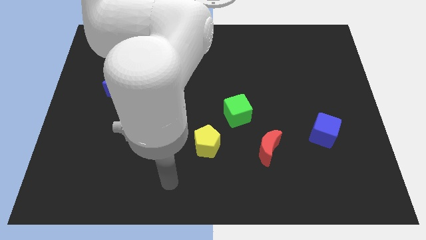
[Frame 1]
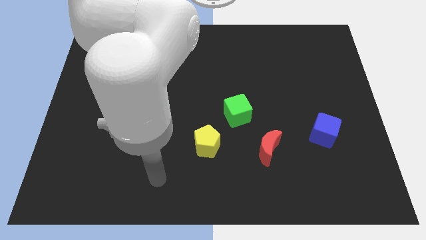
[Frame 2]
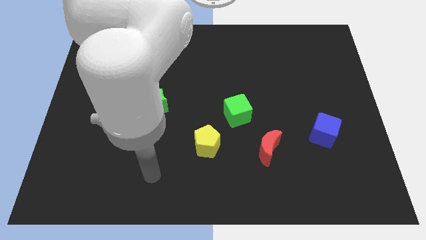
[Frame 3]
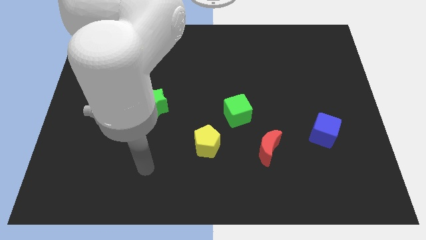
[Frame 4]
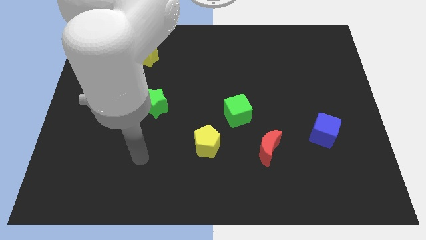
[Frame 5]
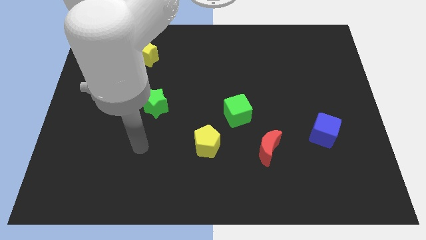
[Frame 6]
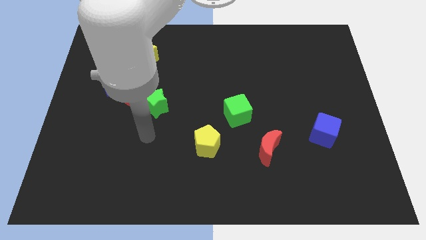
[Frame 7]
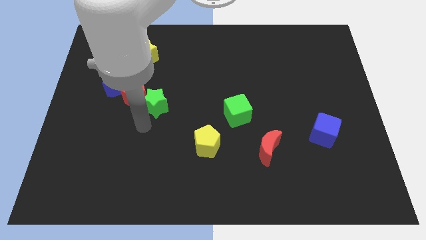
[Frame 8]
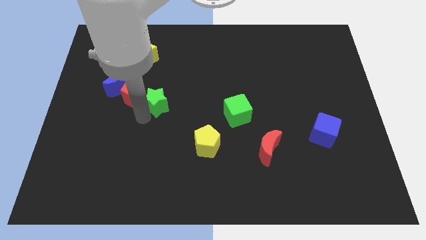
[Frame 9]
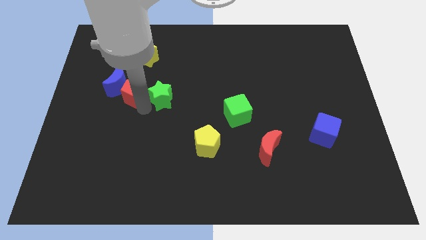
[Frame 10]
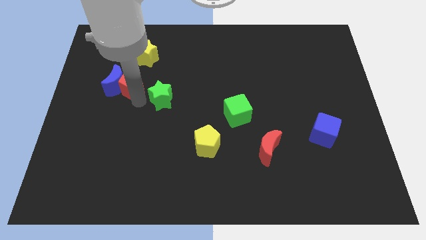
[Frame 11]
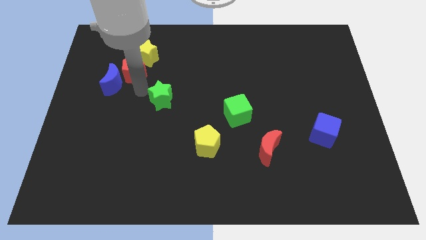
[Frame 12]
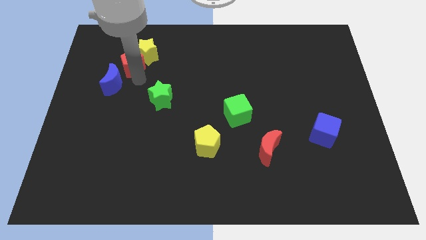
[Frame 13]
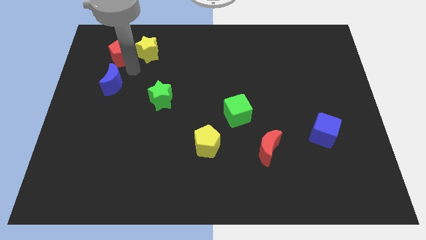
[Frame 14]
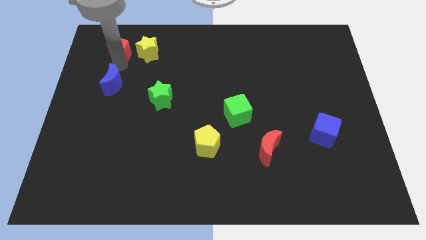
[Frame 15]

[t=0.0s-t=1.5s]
pull the blue moon apart from the red pentagon

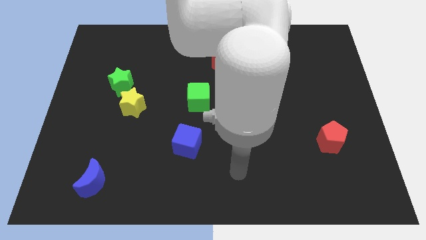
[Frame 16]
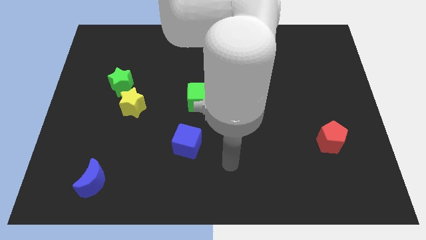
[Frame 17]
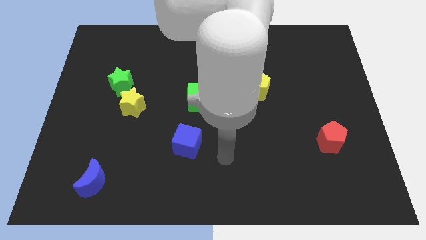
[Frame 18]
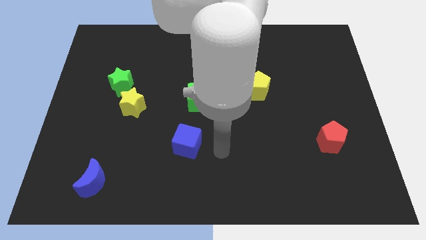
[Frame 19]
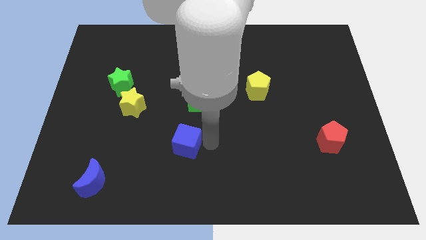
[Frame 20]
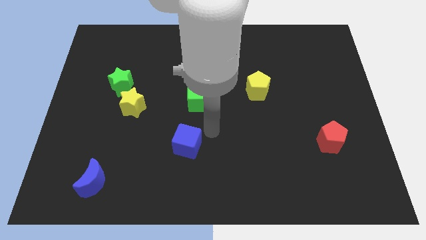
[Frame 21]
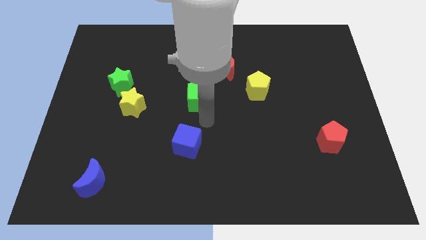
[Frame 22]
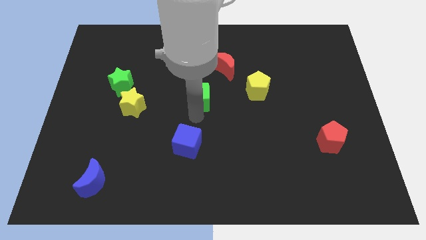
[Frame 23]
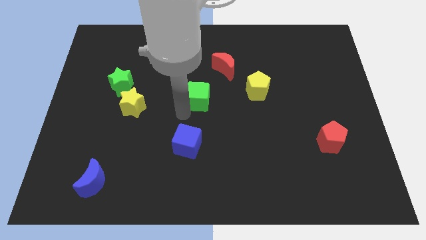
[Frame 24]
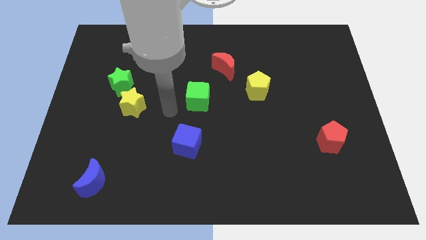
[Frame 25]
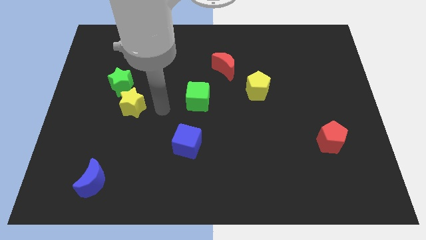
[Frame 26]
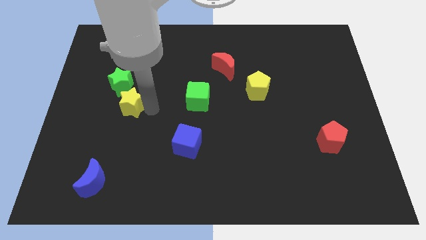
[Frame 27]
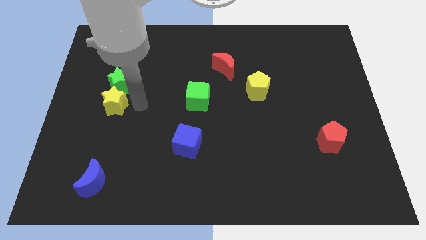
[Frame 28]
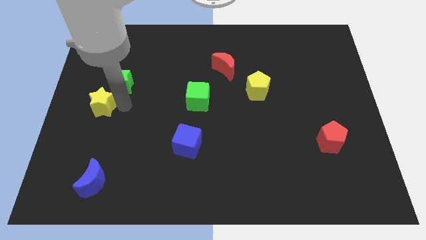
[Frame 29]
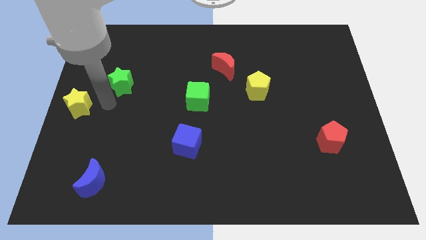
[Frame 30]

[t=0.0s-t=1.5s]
move the green star away from the yellow star

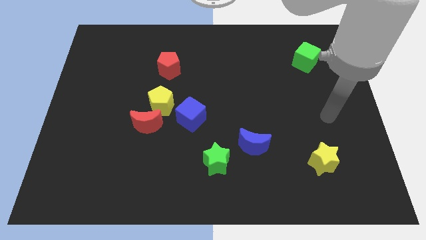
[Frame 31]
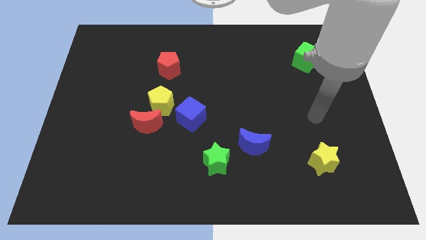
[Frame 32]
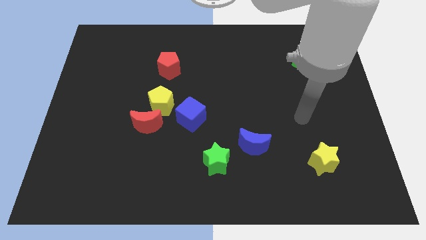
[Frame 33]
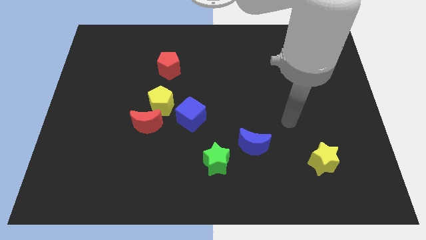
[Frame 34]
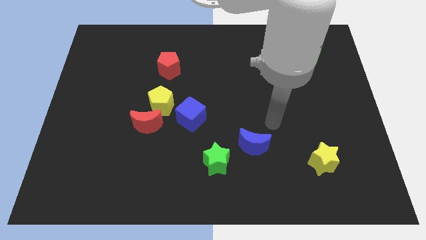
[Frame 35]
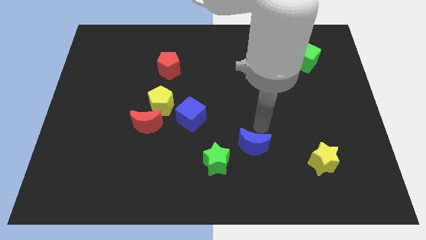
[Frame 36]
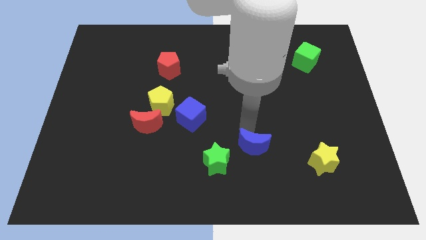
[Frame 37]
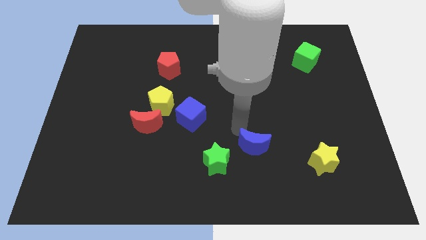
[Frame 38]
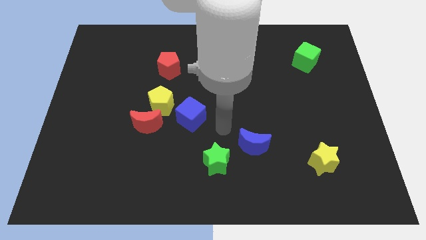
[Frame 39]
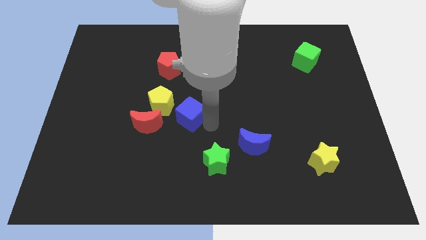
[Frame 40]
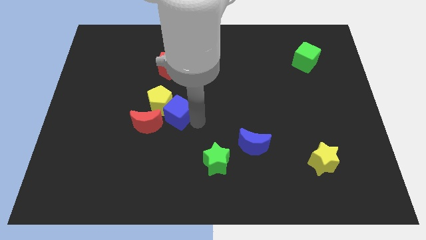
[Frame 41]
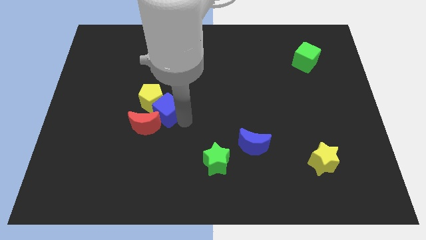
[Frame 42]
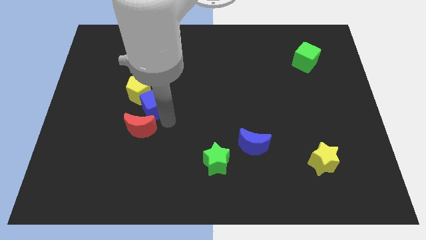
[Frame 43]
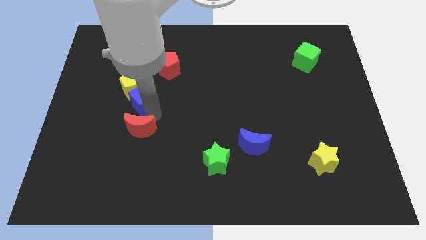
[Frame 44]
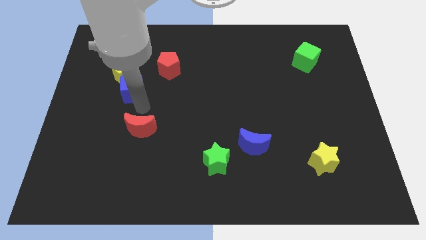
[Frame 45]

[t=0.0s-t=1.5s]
move the yellow pentagon away from the red moon and blue cube

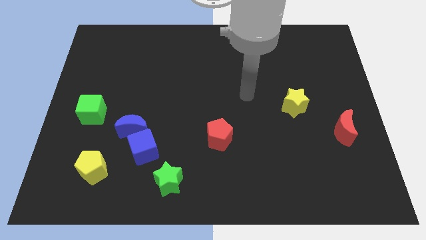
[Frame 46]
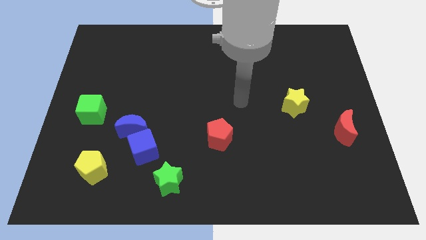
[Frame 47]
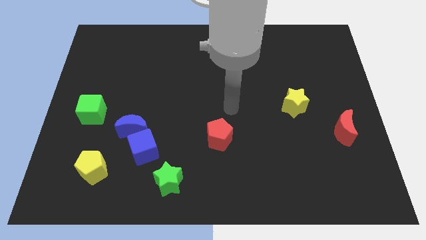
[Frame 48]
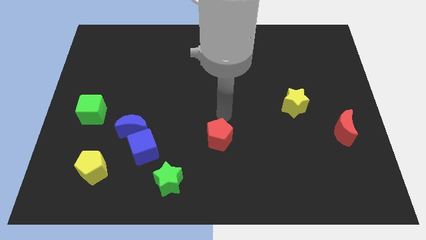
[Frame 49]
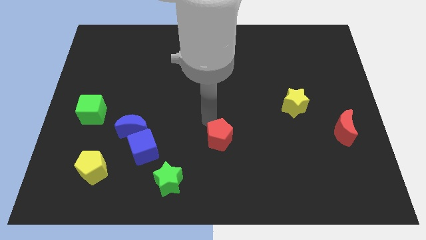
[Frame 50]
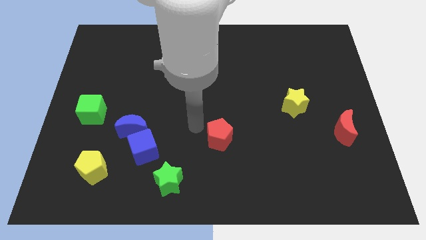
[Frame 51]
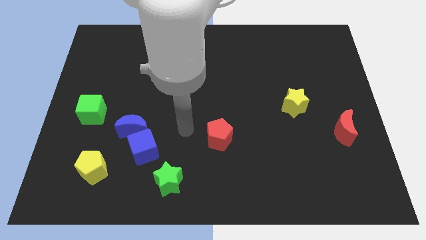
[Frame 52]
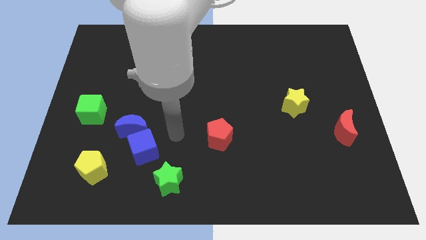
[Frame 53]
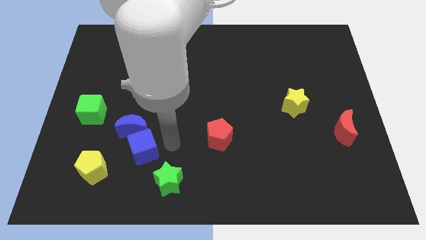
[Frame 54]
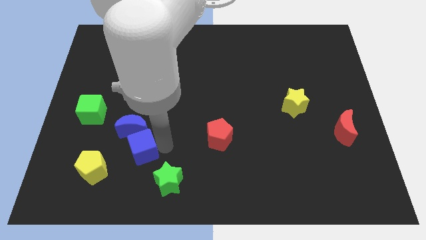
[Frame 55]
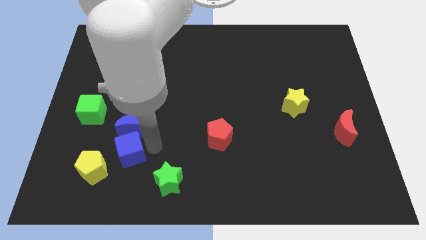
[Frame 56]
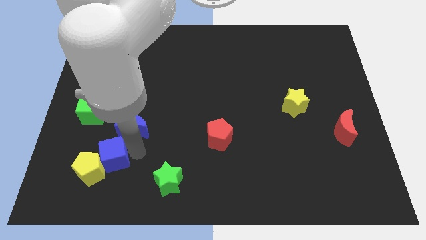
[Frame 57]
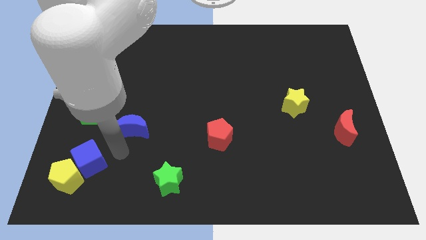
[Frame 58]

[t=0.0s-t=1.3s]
pull the blue moon apart from the blue cube

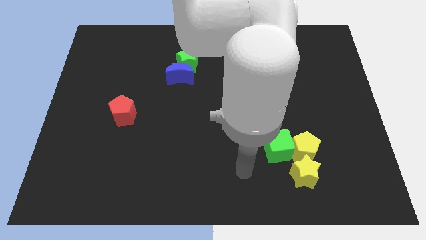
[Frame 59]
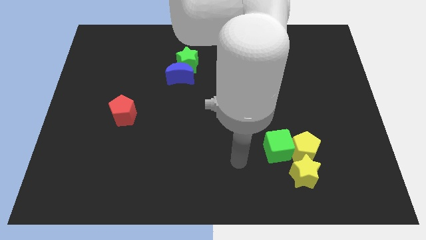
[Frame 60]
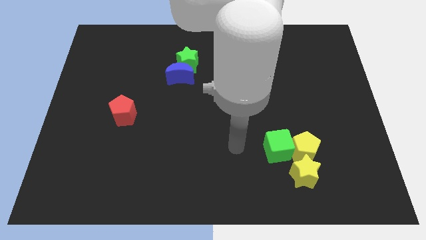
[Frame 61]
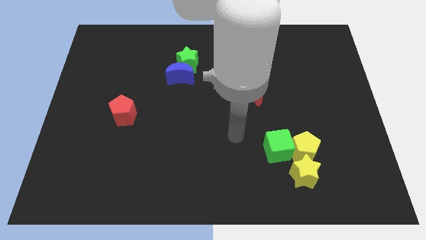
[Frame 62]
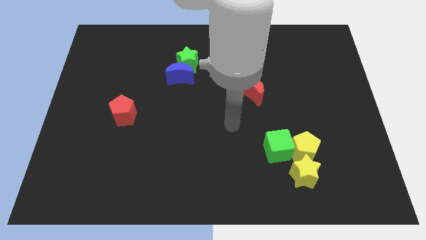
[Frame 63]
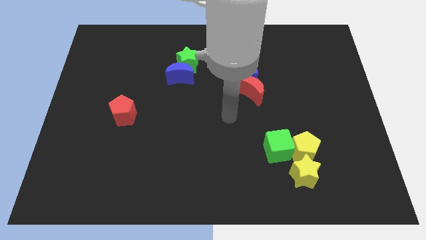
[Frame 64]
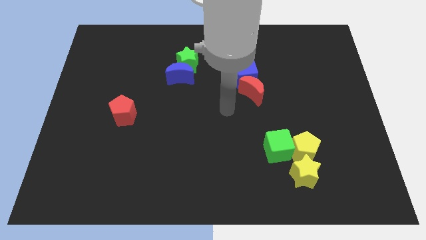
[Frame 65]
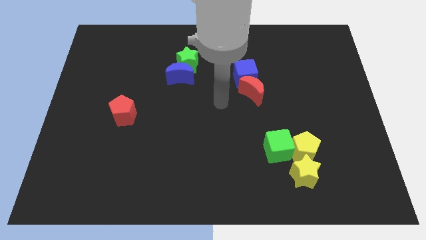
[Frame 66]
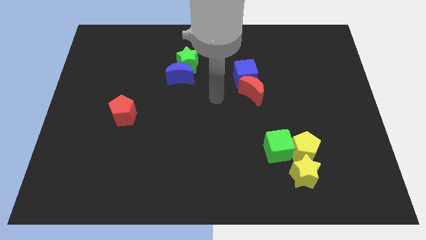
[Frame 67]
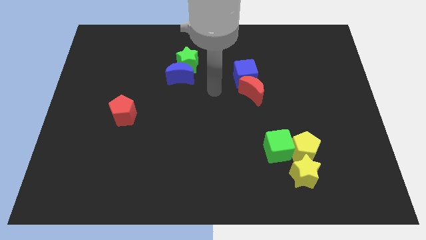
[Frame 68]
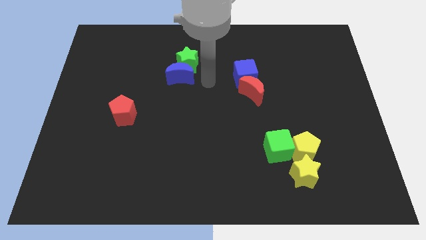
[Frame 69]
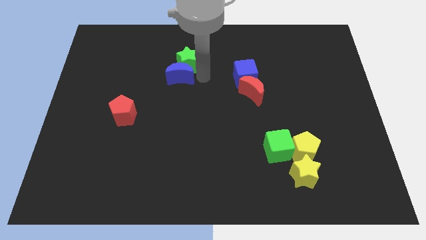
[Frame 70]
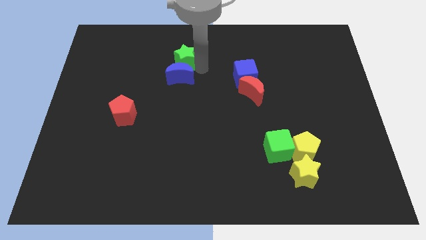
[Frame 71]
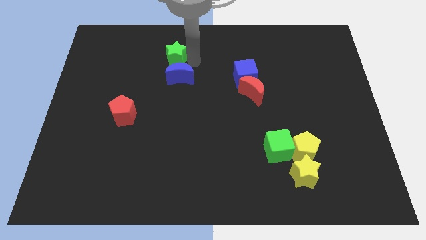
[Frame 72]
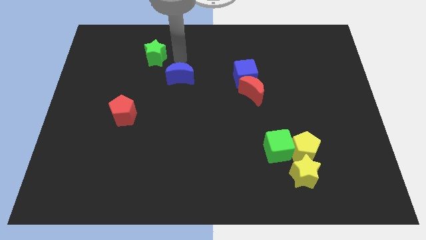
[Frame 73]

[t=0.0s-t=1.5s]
pull the blue moon apart from the green star

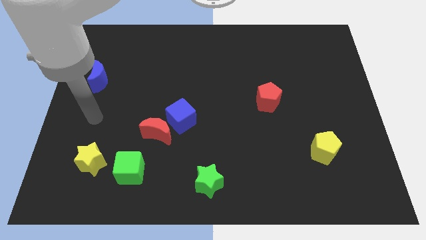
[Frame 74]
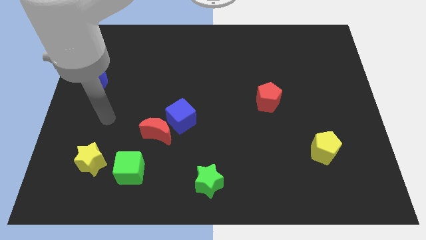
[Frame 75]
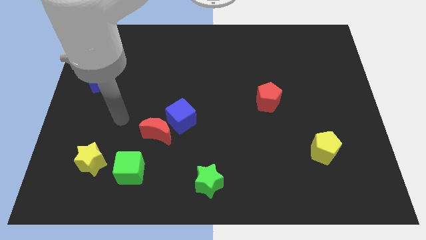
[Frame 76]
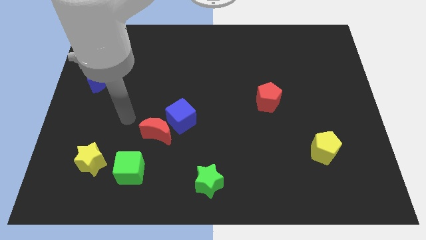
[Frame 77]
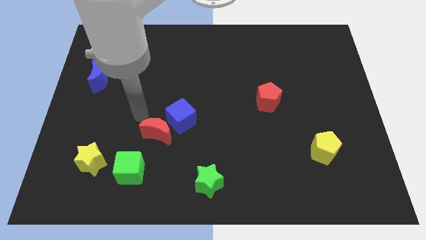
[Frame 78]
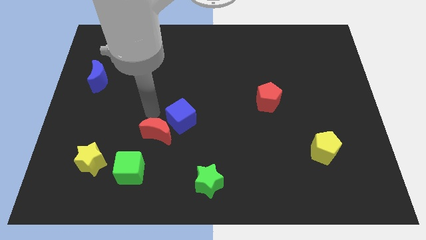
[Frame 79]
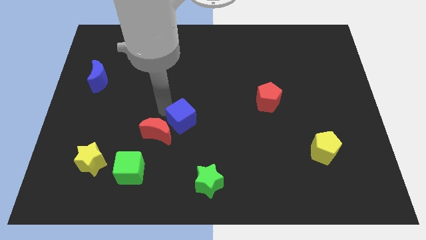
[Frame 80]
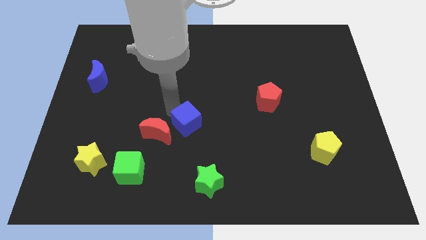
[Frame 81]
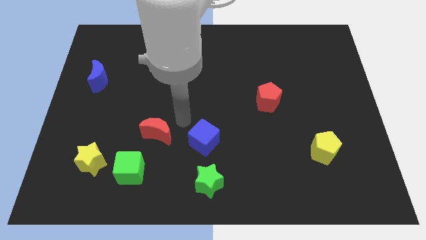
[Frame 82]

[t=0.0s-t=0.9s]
separate the red moon from the blue cube

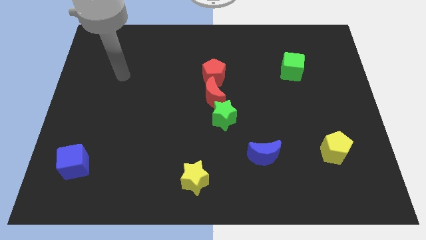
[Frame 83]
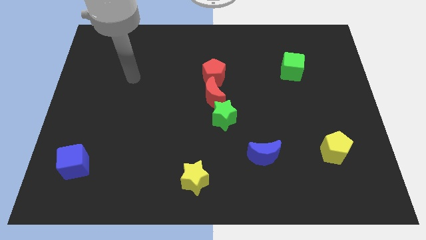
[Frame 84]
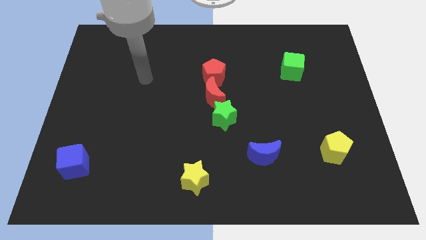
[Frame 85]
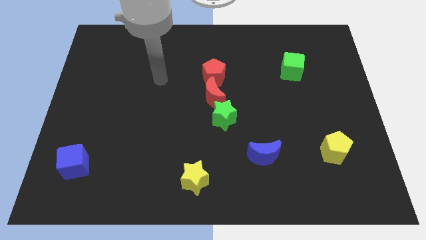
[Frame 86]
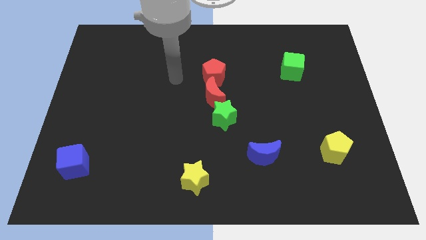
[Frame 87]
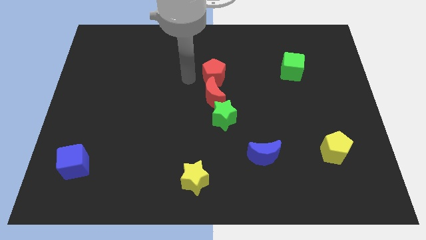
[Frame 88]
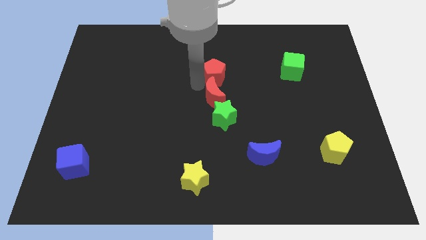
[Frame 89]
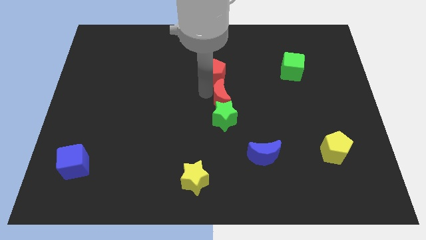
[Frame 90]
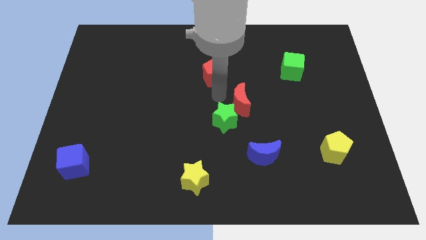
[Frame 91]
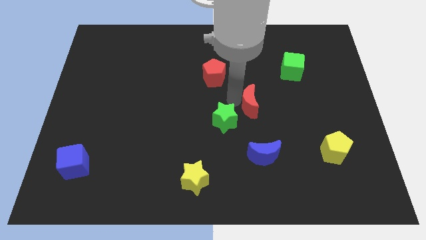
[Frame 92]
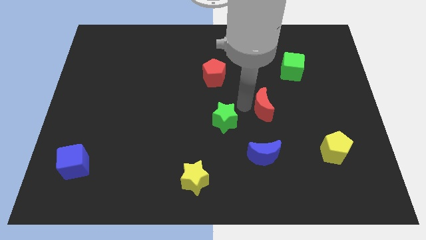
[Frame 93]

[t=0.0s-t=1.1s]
separate the green star from the red moon
